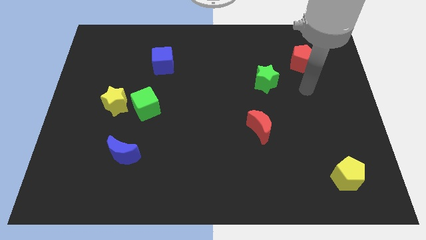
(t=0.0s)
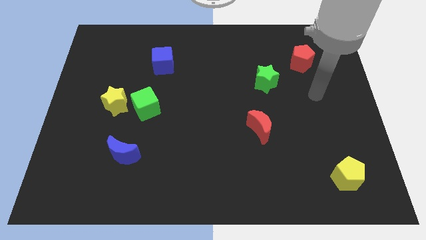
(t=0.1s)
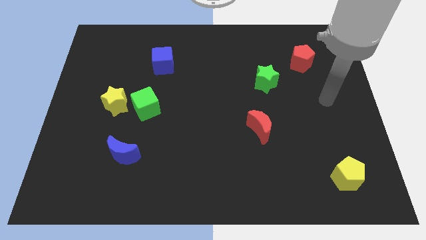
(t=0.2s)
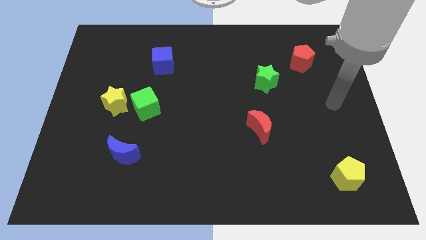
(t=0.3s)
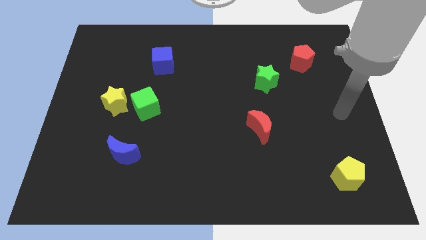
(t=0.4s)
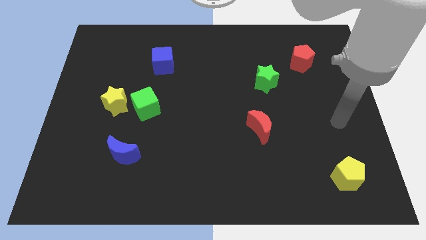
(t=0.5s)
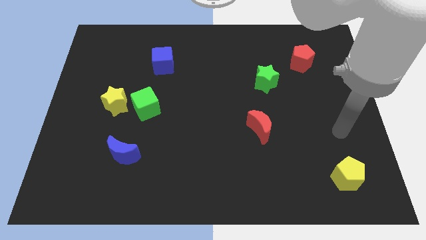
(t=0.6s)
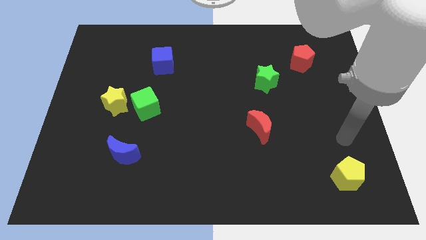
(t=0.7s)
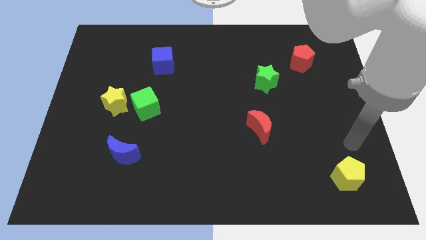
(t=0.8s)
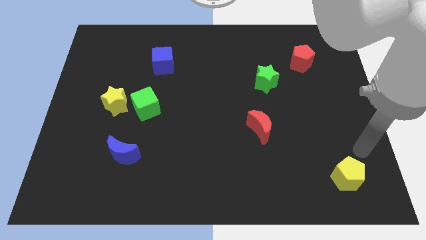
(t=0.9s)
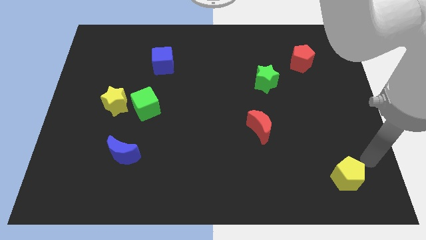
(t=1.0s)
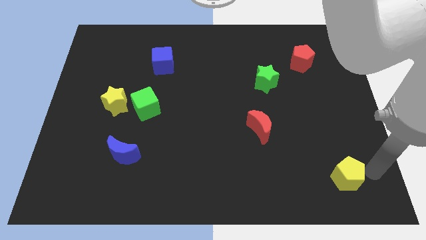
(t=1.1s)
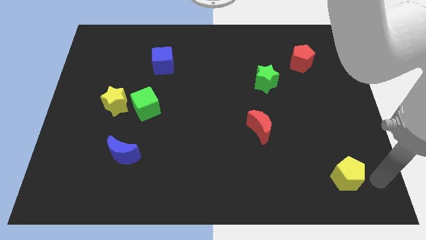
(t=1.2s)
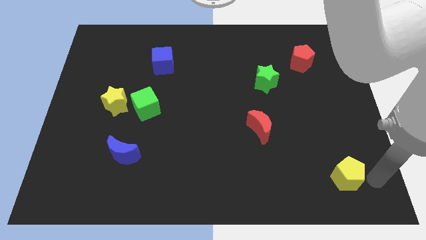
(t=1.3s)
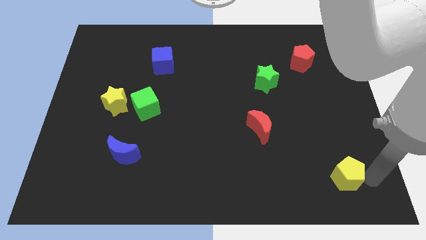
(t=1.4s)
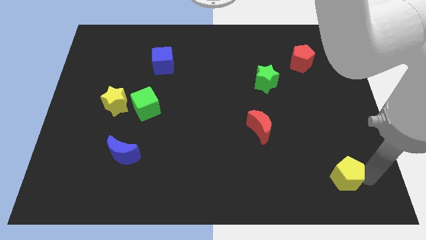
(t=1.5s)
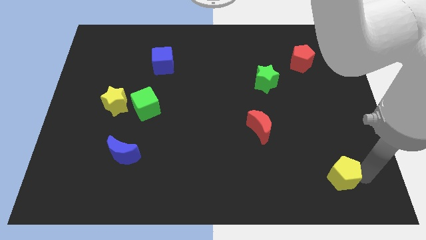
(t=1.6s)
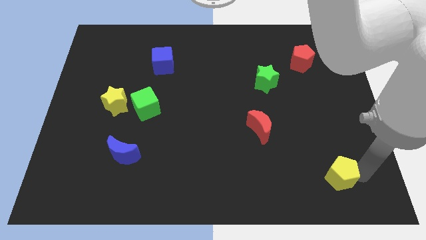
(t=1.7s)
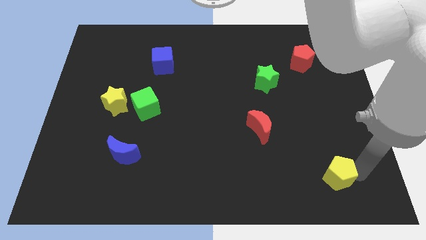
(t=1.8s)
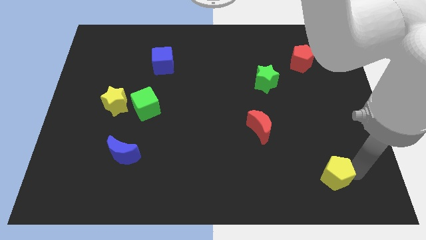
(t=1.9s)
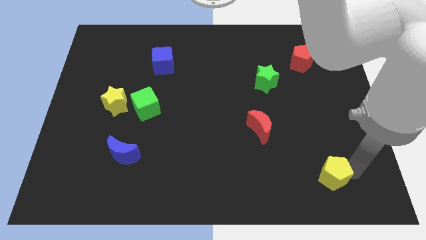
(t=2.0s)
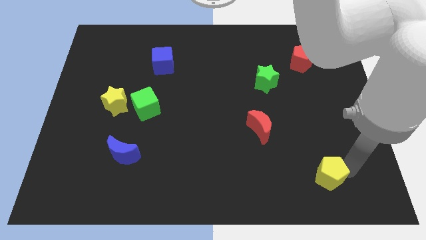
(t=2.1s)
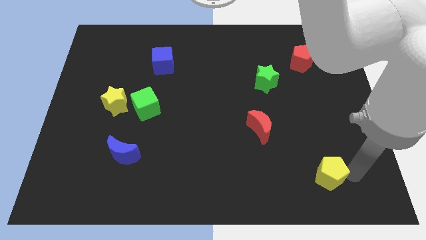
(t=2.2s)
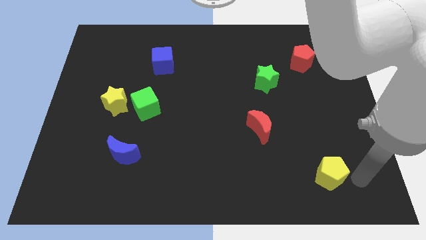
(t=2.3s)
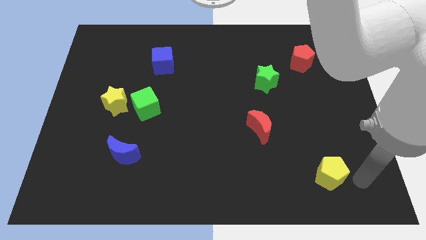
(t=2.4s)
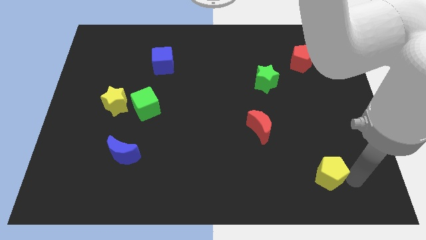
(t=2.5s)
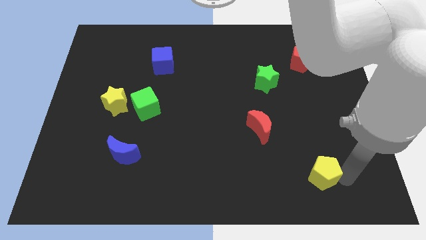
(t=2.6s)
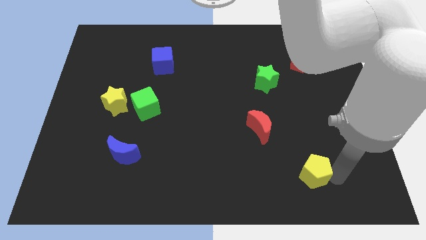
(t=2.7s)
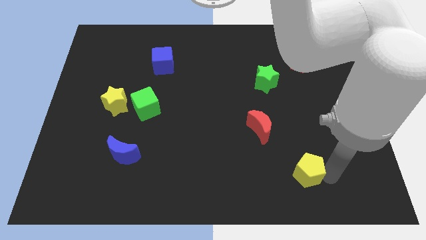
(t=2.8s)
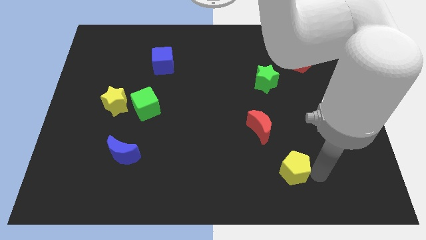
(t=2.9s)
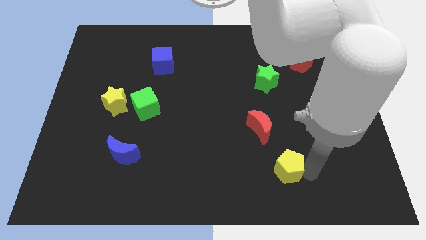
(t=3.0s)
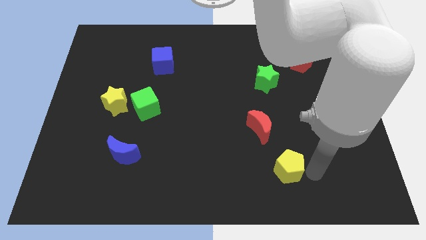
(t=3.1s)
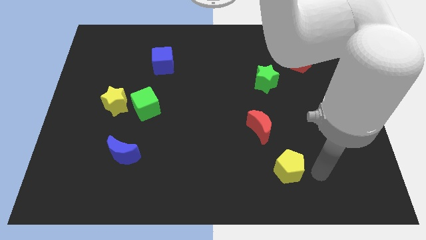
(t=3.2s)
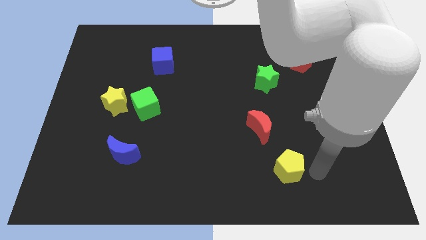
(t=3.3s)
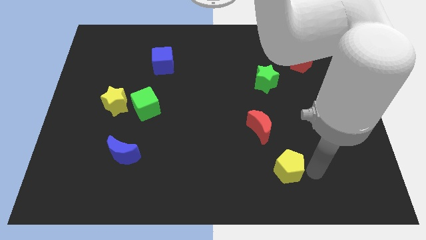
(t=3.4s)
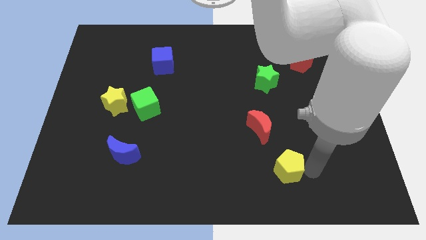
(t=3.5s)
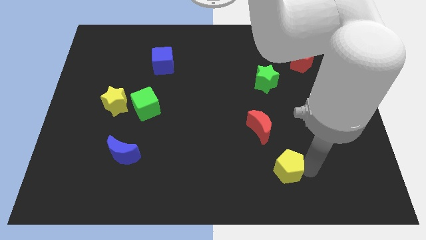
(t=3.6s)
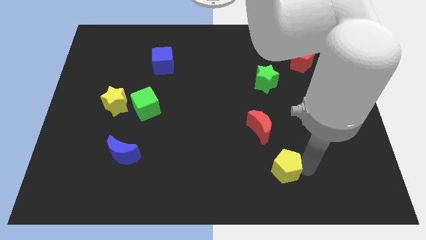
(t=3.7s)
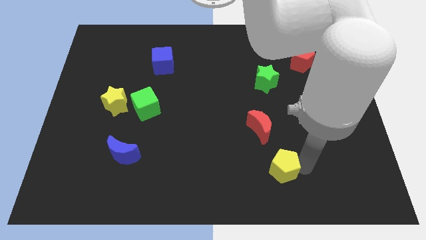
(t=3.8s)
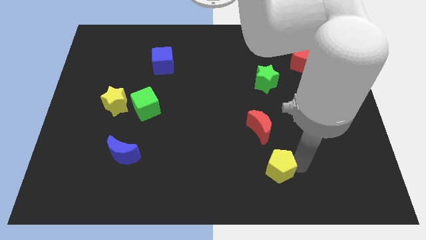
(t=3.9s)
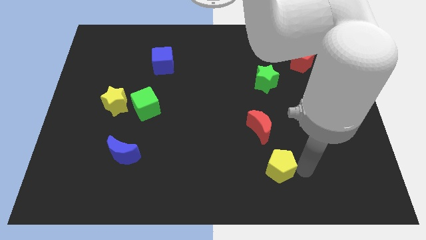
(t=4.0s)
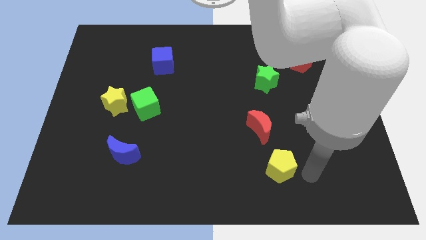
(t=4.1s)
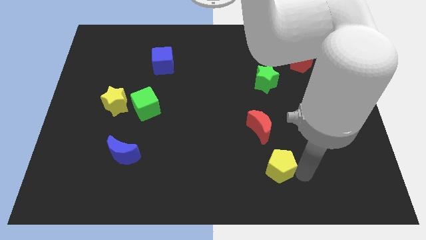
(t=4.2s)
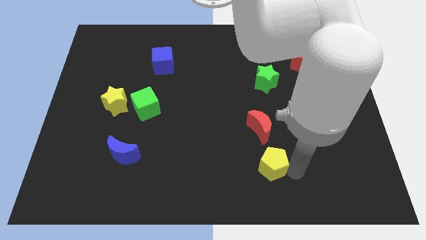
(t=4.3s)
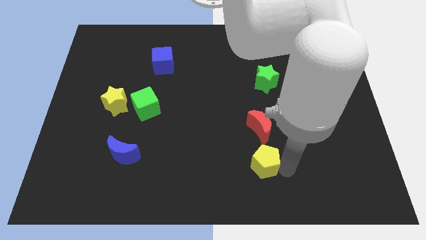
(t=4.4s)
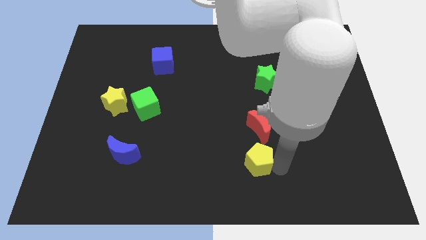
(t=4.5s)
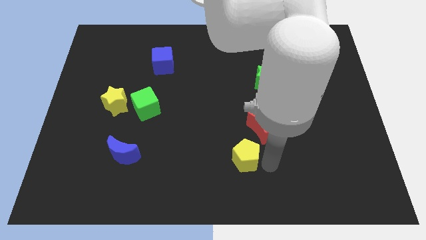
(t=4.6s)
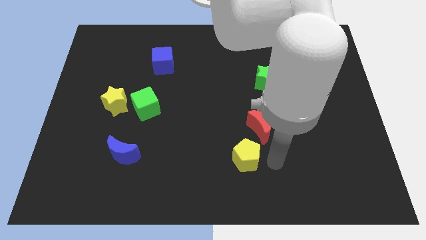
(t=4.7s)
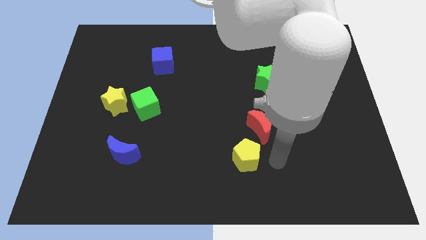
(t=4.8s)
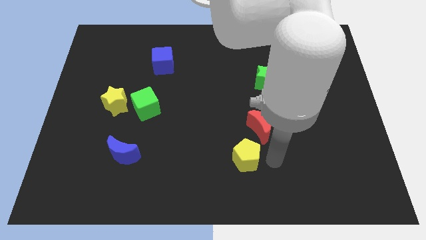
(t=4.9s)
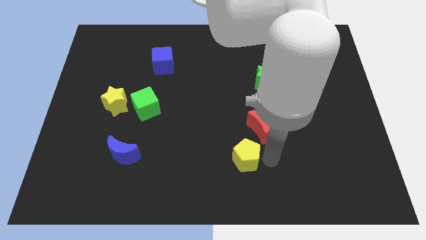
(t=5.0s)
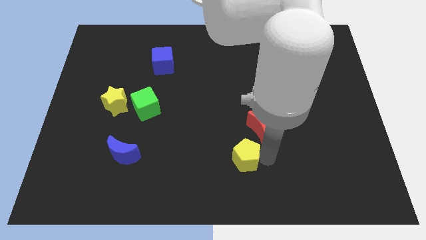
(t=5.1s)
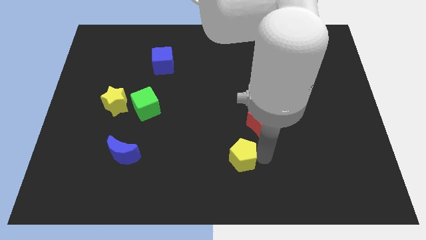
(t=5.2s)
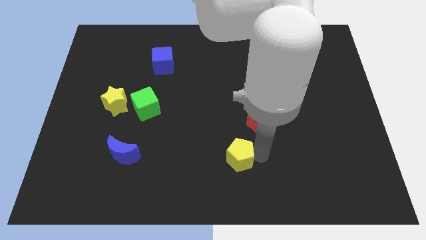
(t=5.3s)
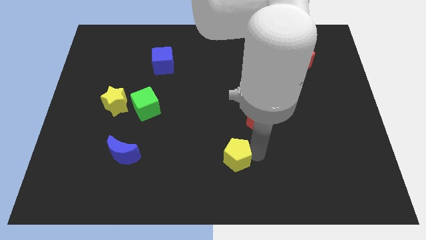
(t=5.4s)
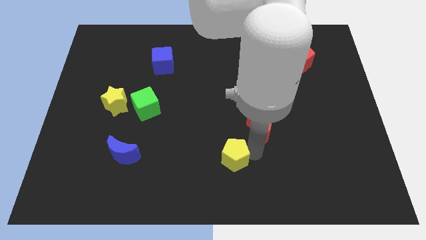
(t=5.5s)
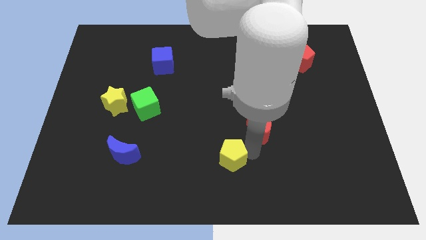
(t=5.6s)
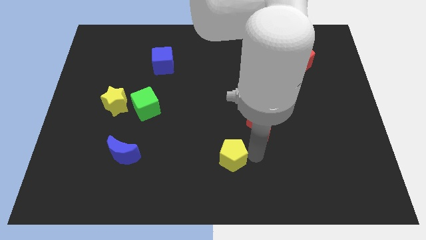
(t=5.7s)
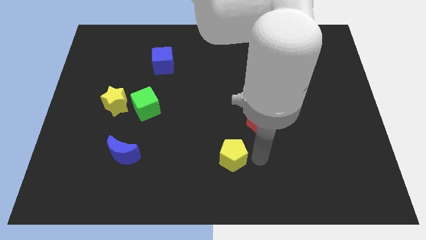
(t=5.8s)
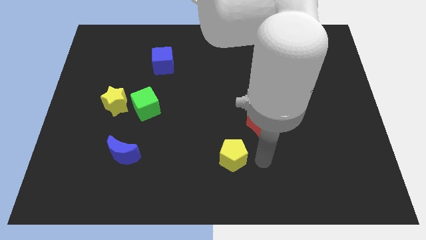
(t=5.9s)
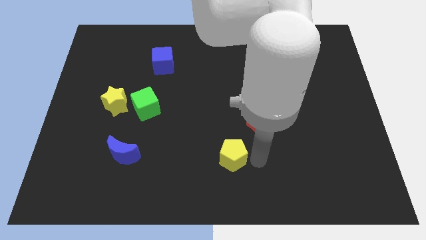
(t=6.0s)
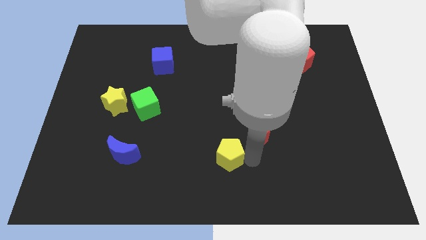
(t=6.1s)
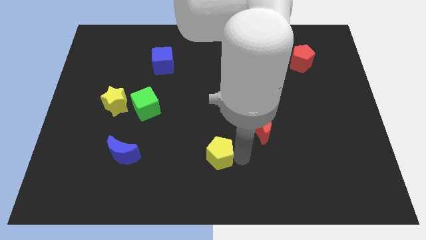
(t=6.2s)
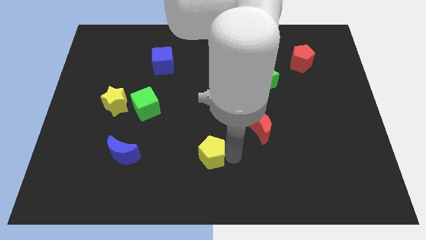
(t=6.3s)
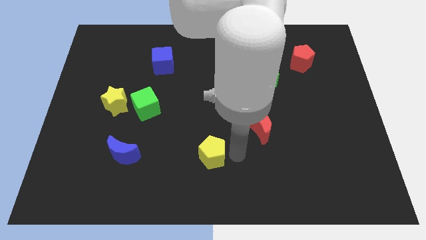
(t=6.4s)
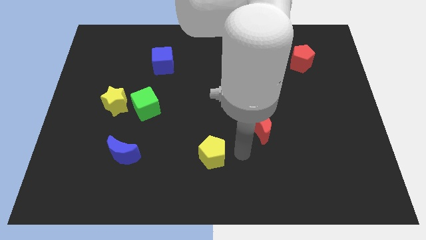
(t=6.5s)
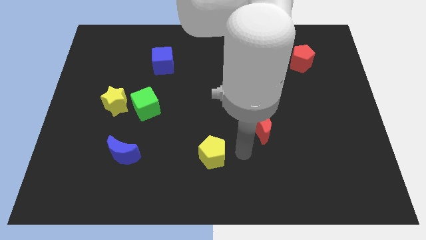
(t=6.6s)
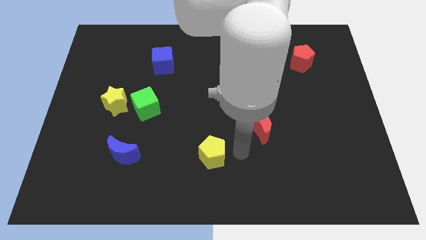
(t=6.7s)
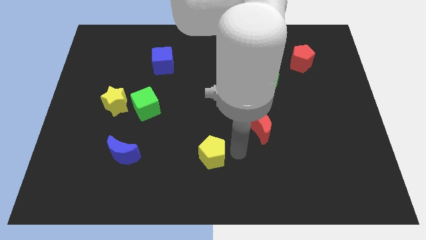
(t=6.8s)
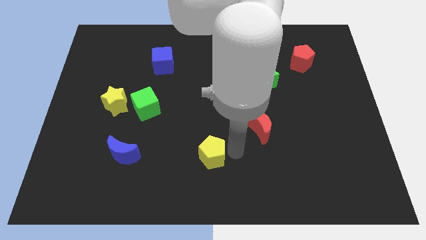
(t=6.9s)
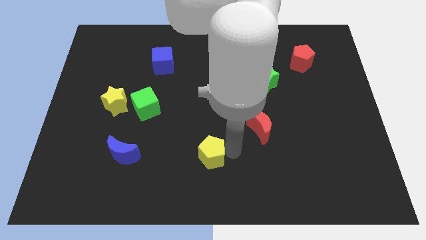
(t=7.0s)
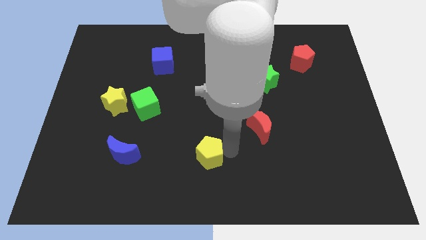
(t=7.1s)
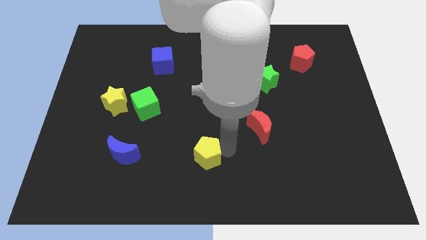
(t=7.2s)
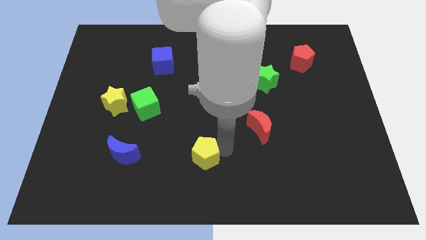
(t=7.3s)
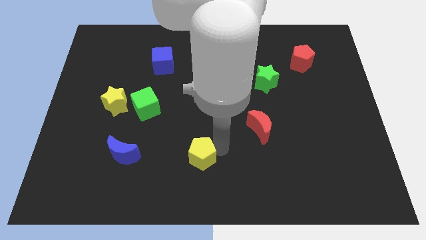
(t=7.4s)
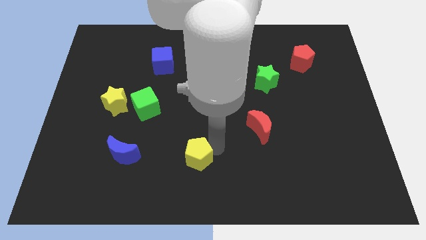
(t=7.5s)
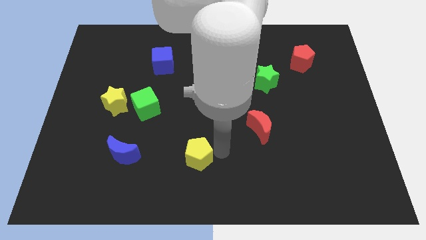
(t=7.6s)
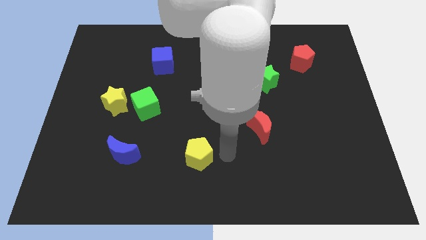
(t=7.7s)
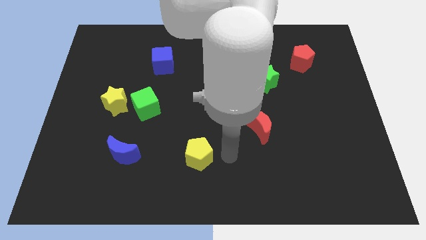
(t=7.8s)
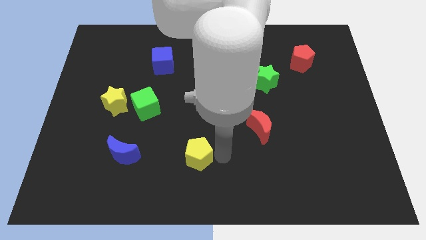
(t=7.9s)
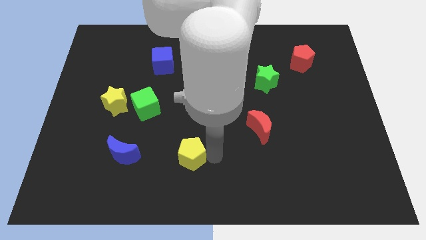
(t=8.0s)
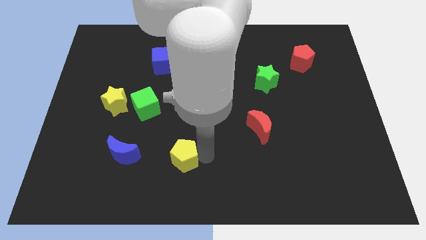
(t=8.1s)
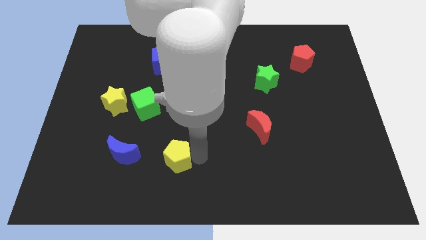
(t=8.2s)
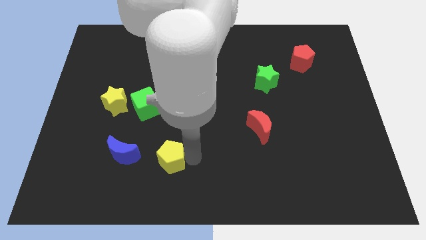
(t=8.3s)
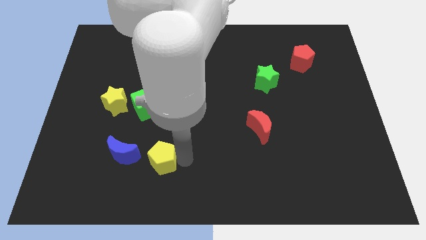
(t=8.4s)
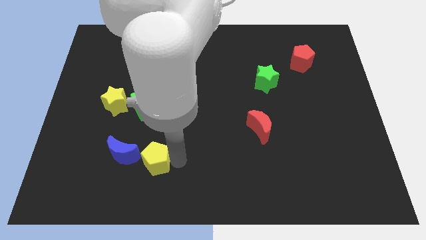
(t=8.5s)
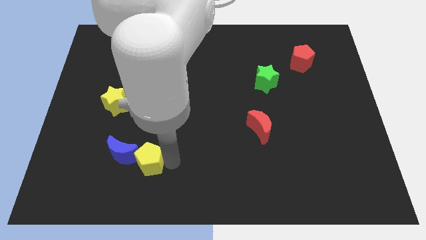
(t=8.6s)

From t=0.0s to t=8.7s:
push the yellow pentagon to the blue moon
